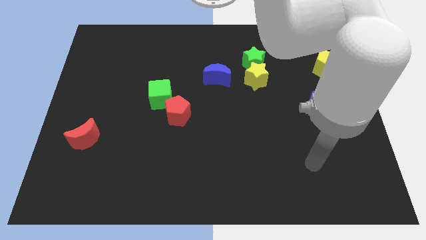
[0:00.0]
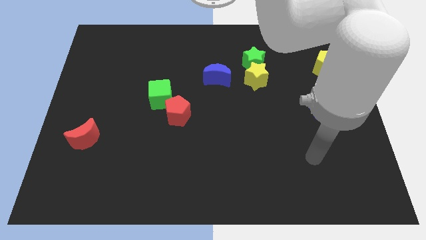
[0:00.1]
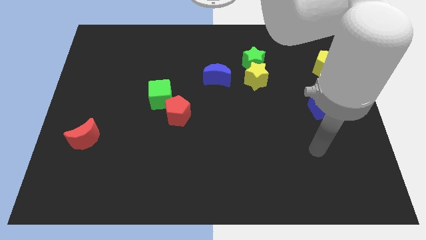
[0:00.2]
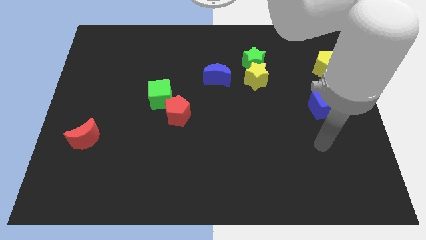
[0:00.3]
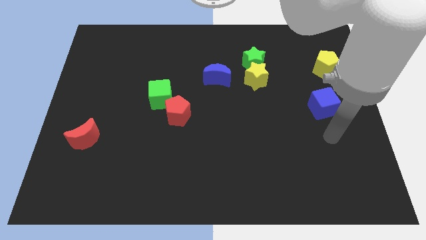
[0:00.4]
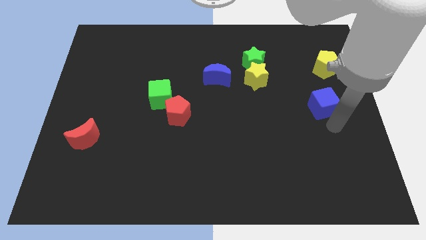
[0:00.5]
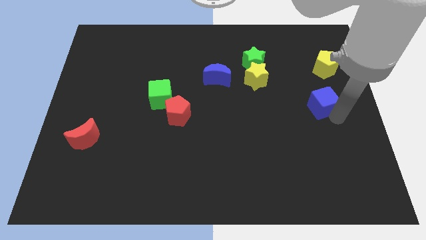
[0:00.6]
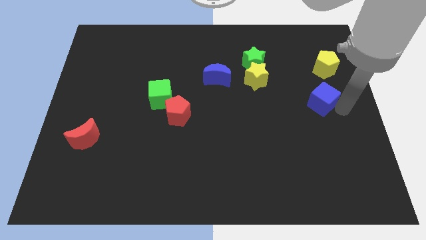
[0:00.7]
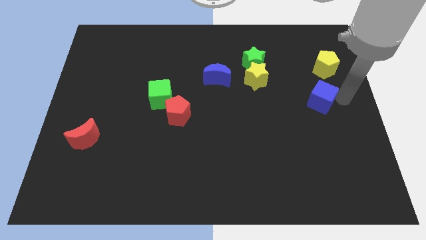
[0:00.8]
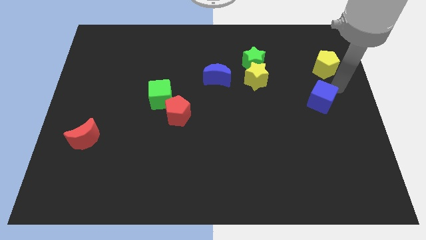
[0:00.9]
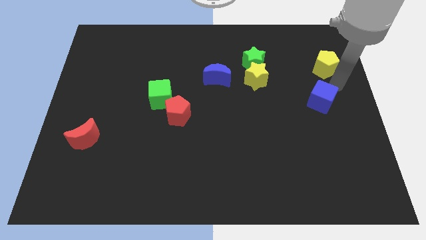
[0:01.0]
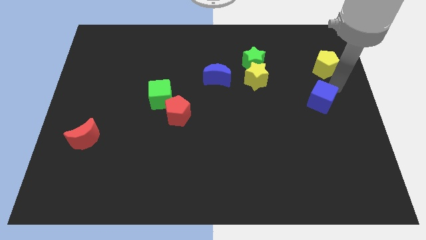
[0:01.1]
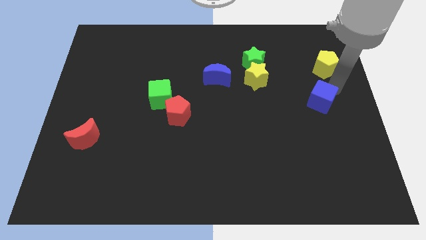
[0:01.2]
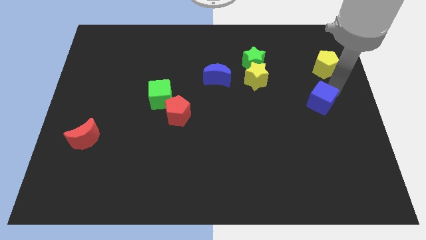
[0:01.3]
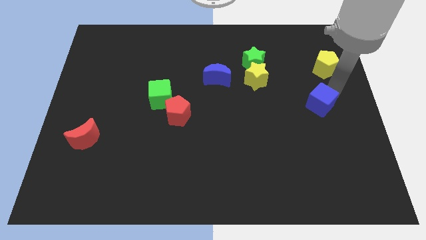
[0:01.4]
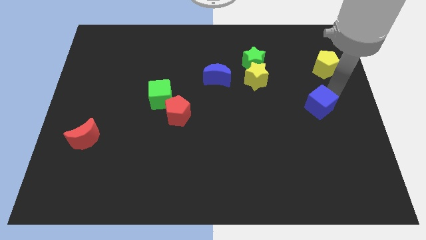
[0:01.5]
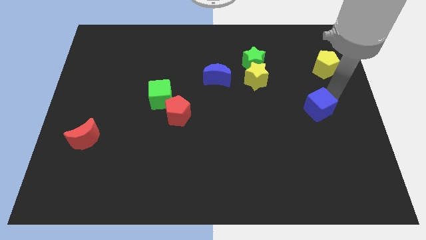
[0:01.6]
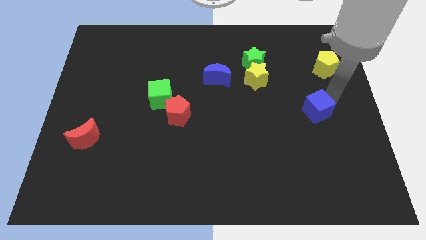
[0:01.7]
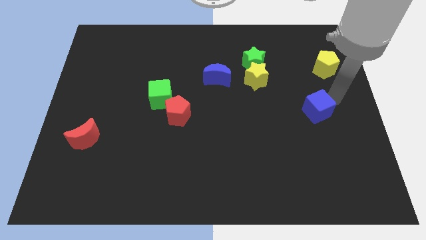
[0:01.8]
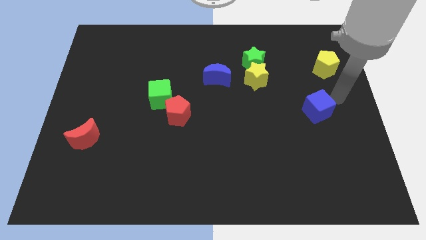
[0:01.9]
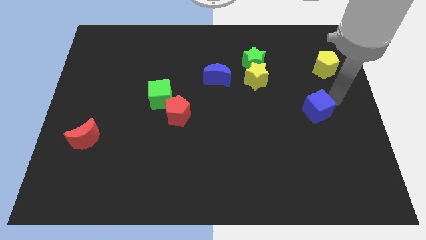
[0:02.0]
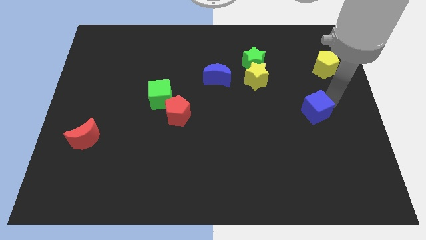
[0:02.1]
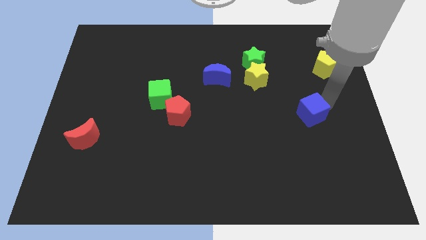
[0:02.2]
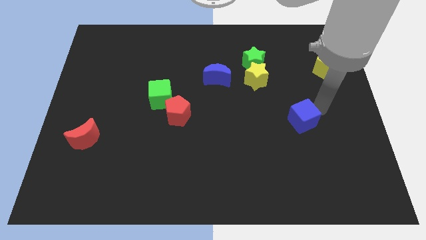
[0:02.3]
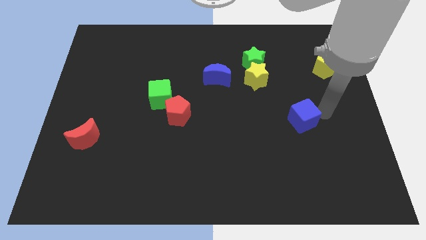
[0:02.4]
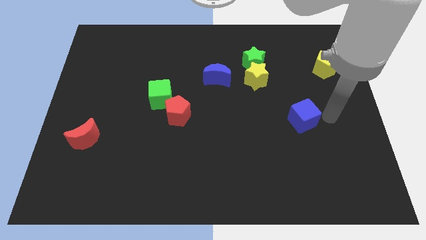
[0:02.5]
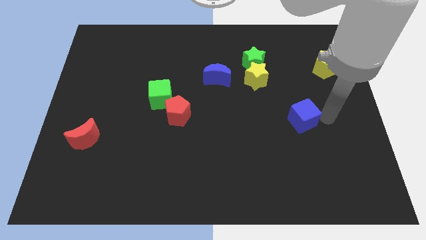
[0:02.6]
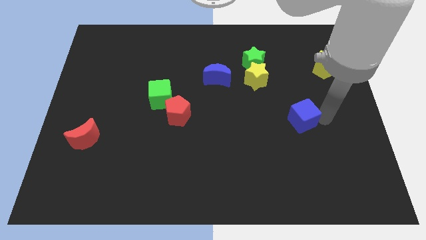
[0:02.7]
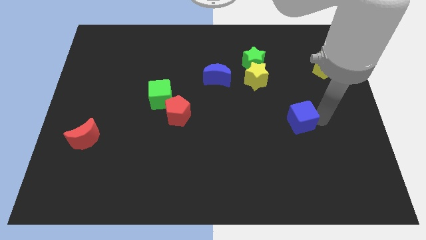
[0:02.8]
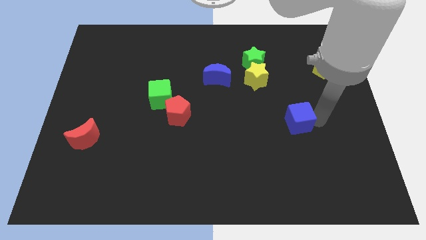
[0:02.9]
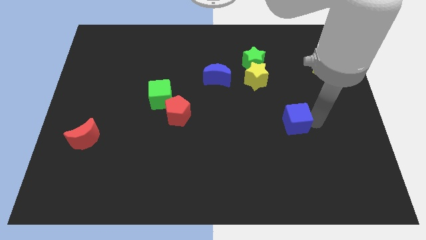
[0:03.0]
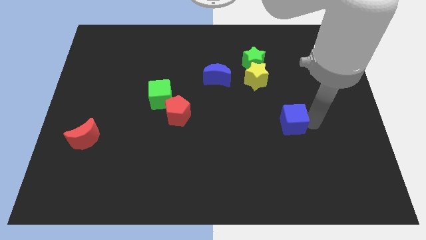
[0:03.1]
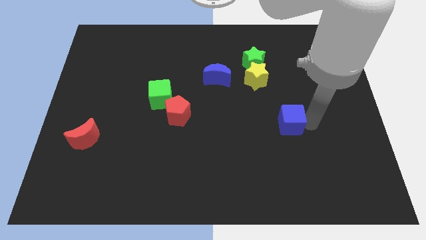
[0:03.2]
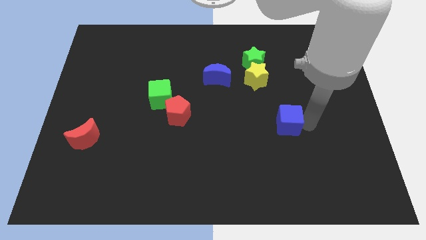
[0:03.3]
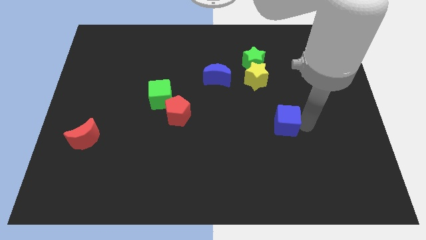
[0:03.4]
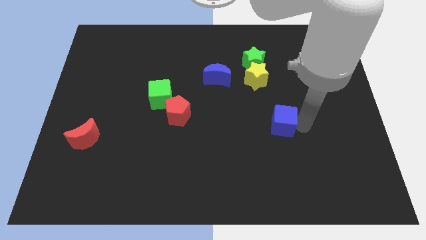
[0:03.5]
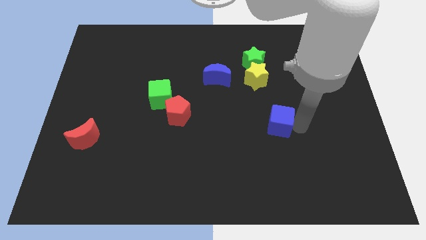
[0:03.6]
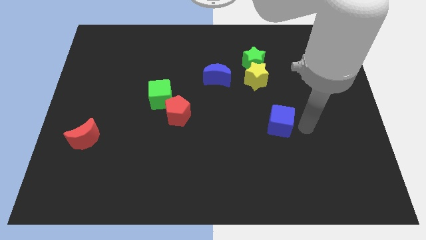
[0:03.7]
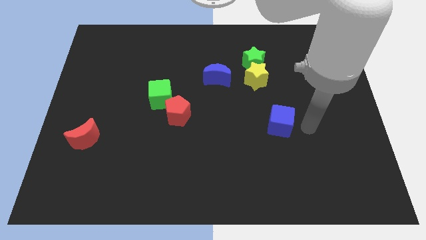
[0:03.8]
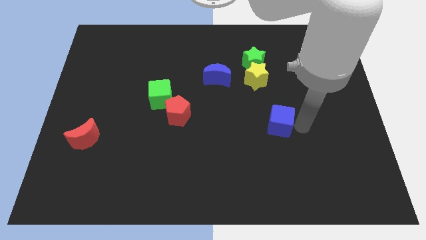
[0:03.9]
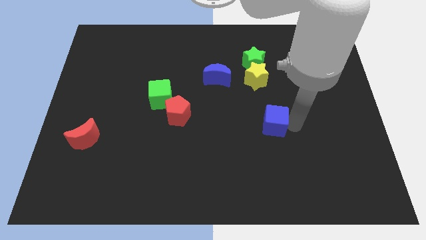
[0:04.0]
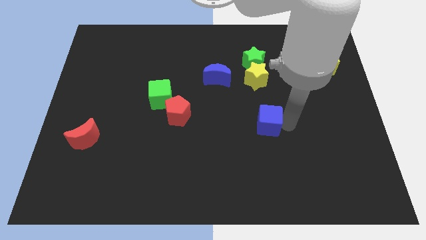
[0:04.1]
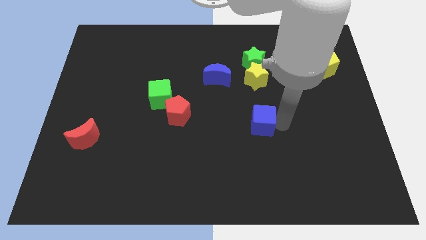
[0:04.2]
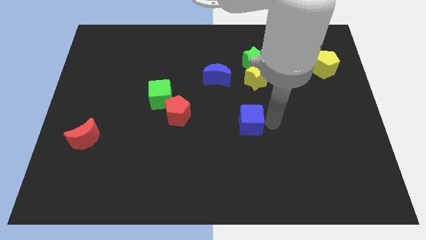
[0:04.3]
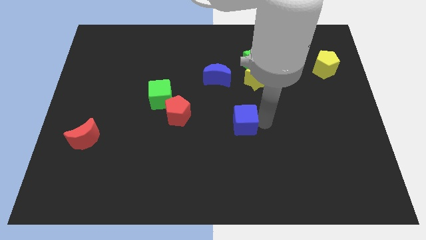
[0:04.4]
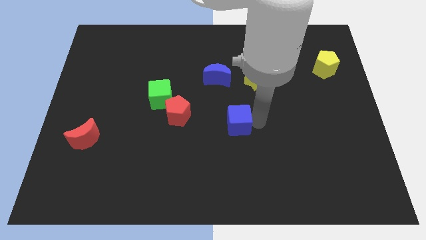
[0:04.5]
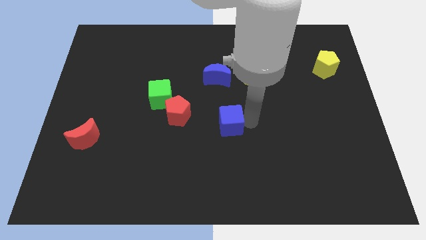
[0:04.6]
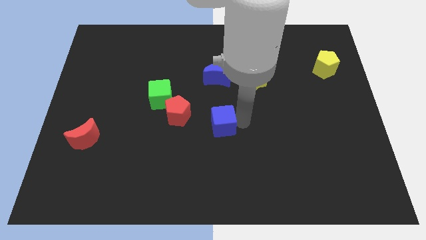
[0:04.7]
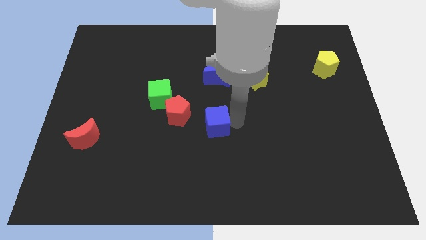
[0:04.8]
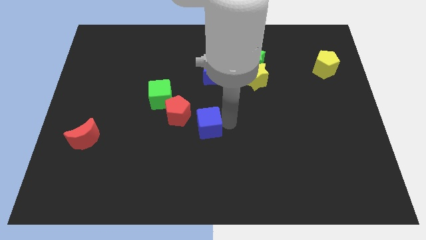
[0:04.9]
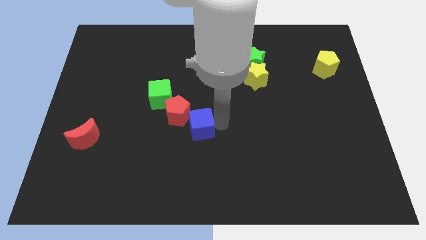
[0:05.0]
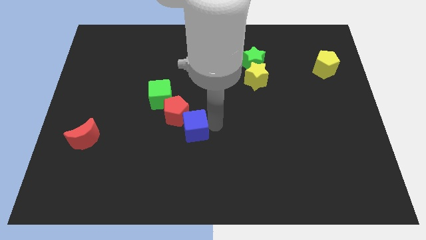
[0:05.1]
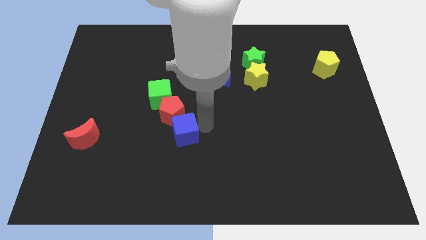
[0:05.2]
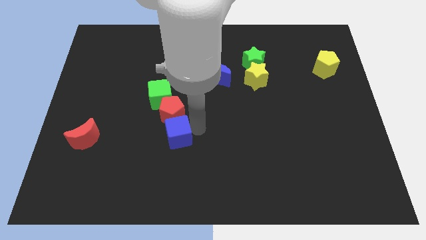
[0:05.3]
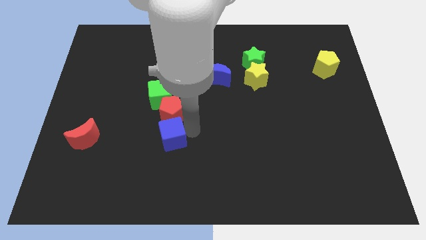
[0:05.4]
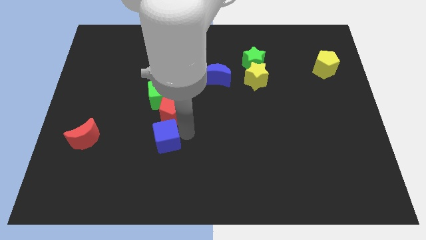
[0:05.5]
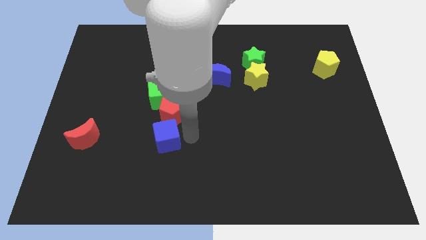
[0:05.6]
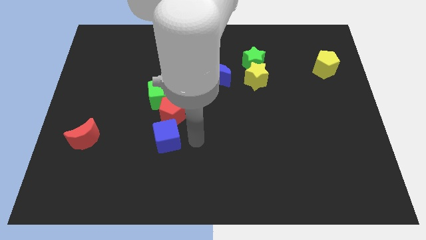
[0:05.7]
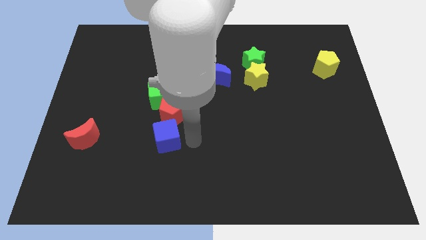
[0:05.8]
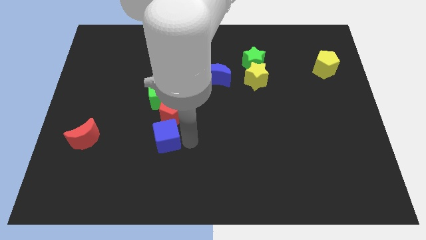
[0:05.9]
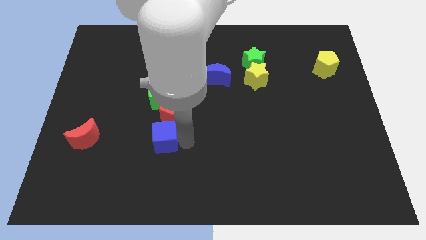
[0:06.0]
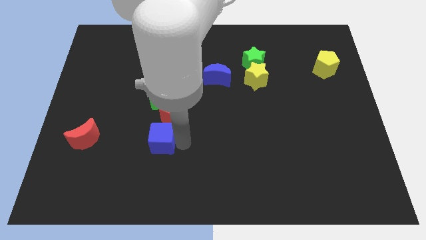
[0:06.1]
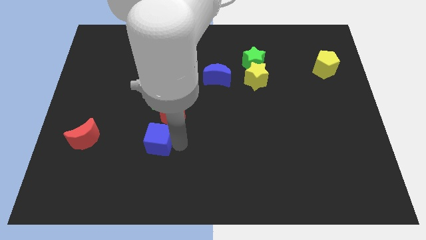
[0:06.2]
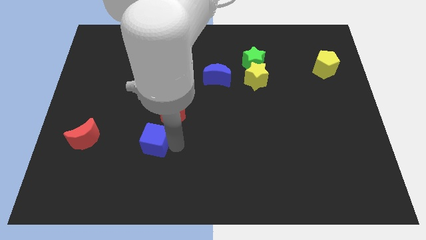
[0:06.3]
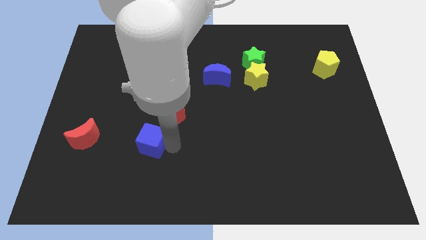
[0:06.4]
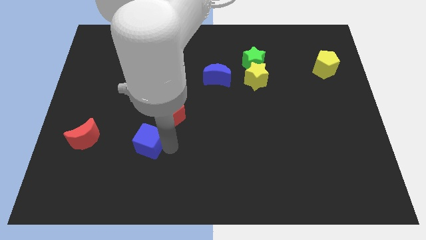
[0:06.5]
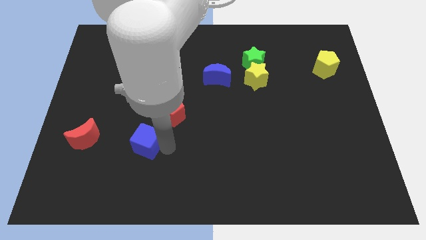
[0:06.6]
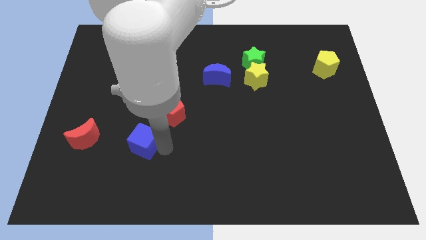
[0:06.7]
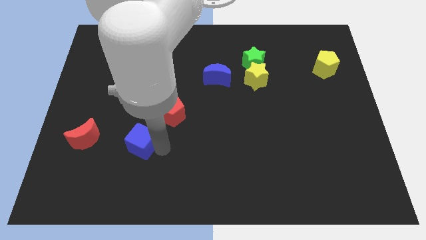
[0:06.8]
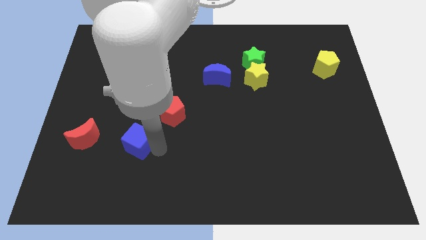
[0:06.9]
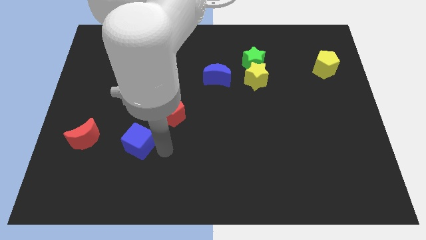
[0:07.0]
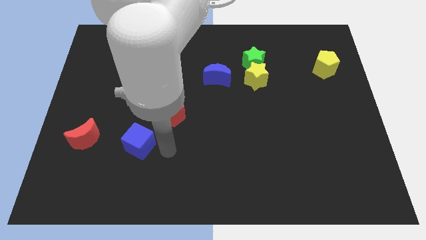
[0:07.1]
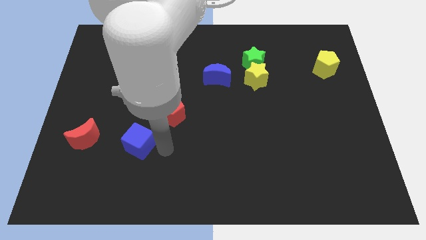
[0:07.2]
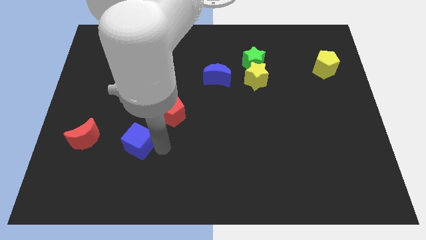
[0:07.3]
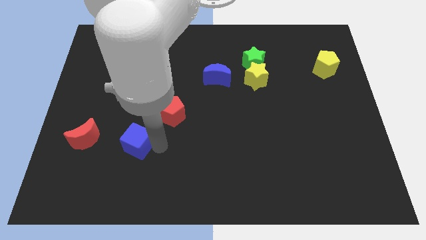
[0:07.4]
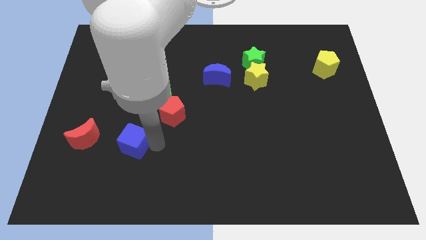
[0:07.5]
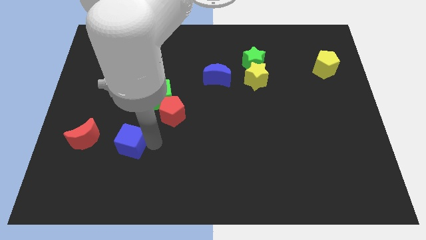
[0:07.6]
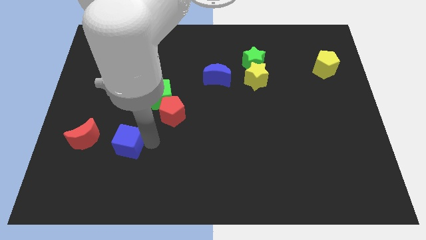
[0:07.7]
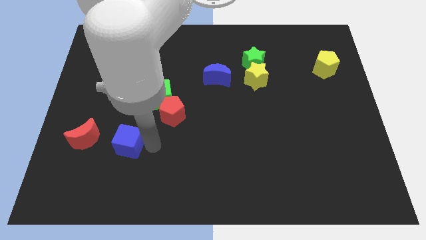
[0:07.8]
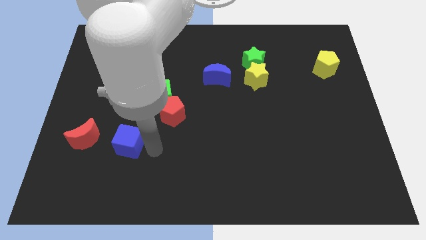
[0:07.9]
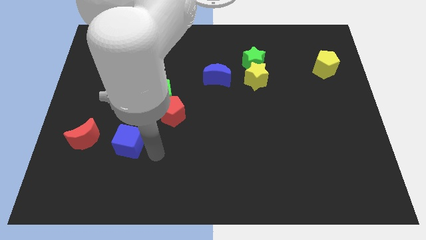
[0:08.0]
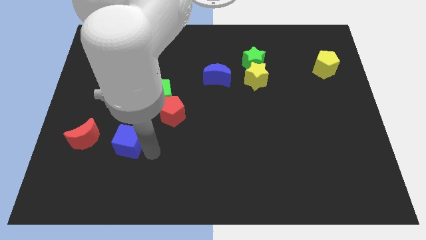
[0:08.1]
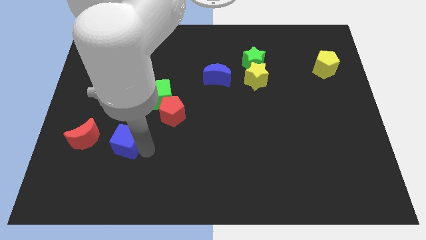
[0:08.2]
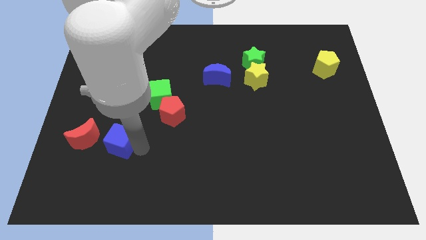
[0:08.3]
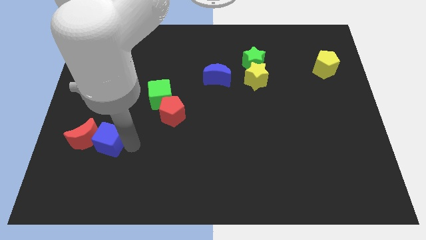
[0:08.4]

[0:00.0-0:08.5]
slide the blue cube next to the red moon
